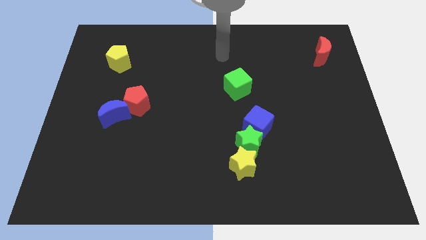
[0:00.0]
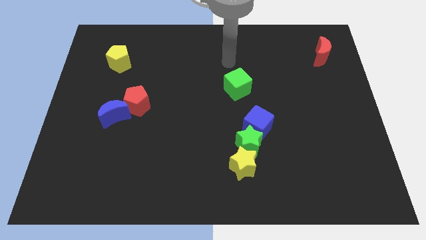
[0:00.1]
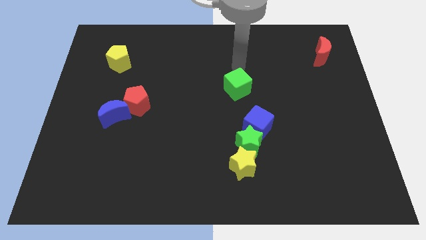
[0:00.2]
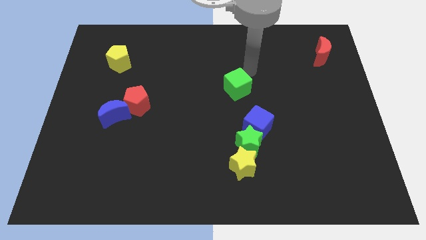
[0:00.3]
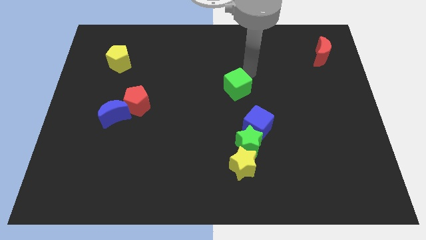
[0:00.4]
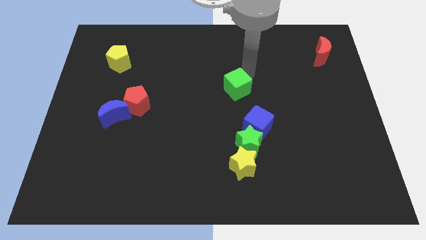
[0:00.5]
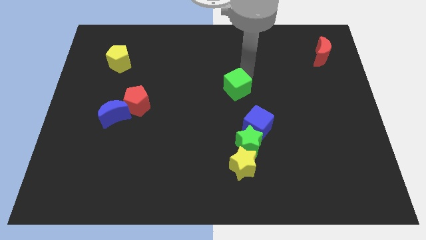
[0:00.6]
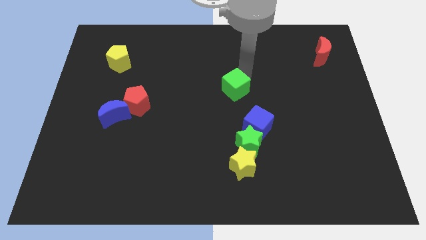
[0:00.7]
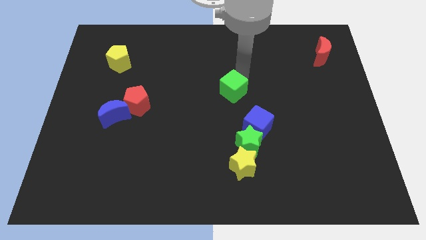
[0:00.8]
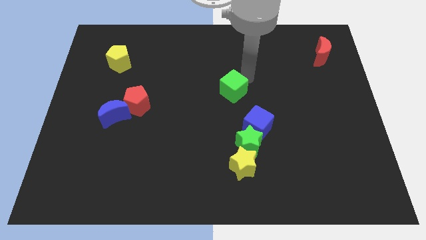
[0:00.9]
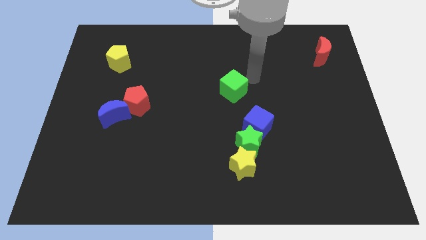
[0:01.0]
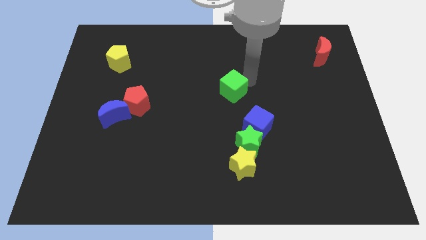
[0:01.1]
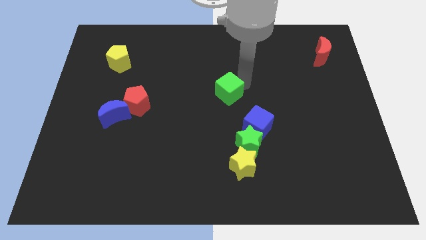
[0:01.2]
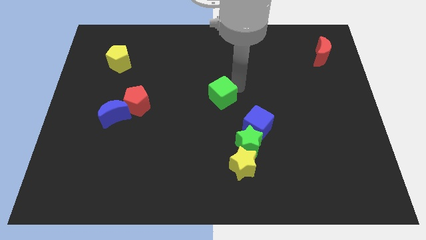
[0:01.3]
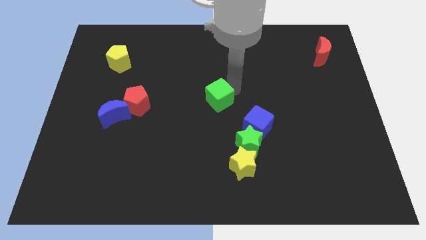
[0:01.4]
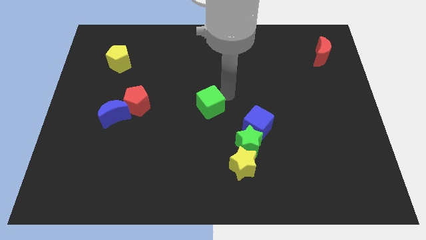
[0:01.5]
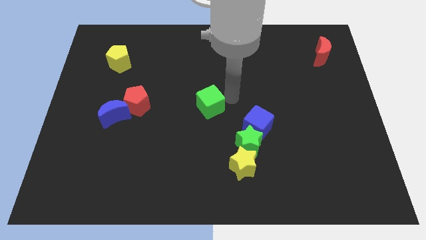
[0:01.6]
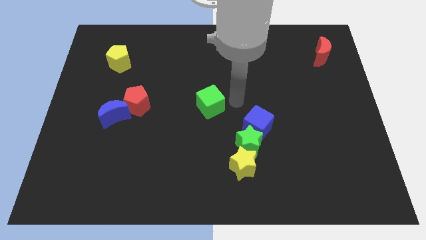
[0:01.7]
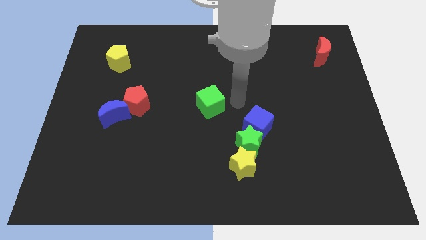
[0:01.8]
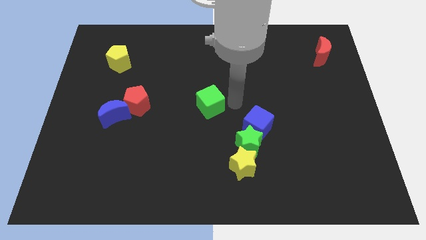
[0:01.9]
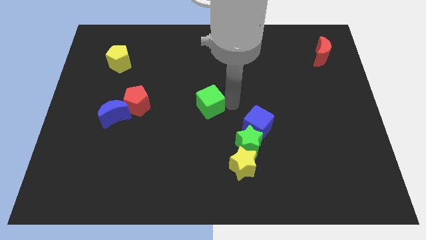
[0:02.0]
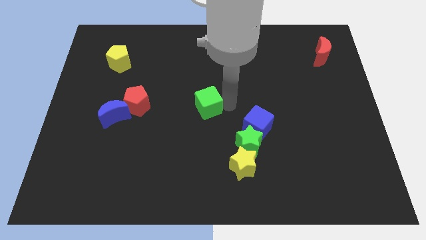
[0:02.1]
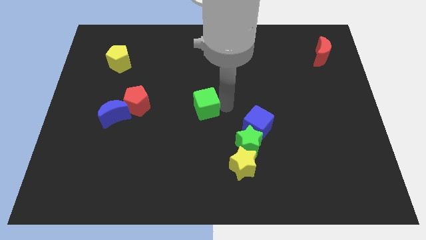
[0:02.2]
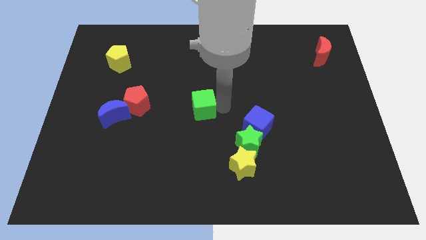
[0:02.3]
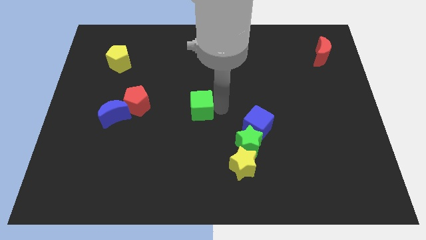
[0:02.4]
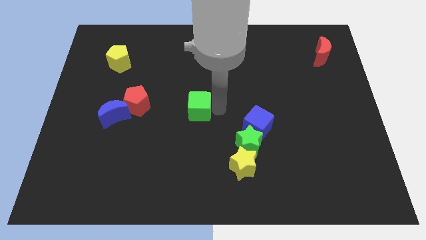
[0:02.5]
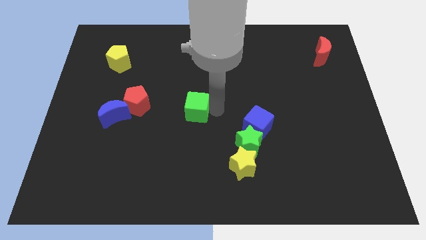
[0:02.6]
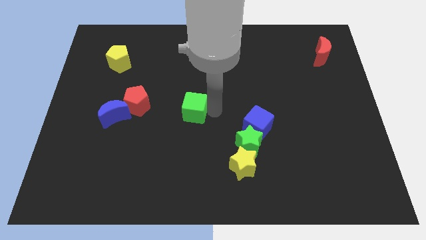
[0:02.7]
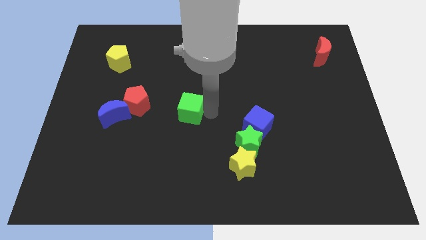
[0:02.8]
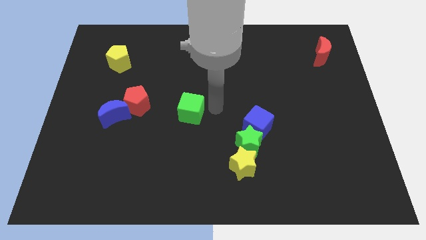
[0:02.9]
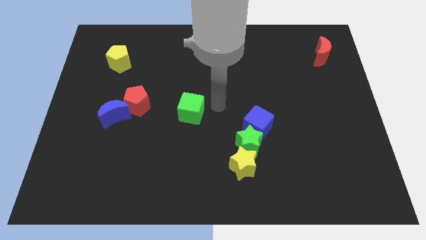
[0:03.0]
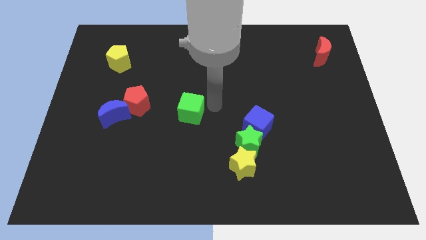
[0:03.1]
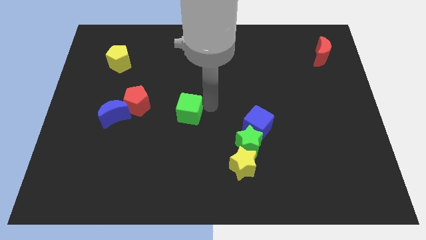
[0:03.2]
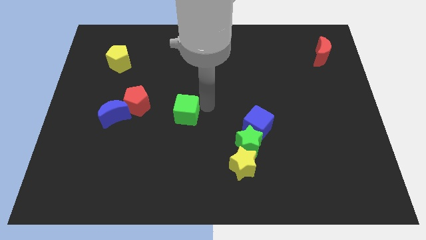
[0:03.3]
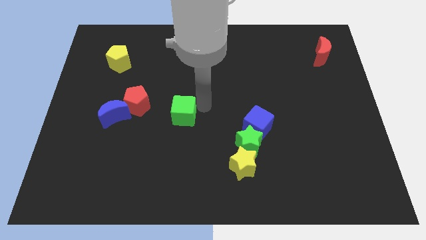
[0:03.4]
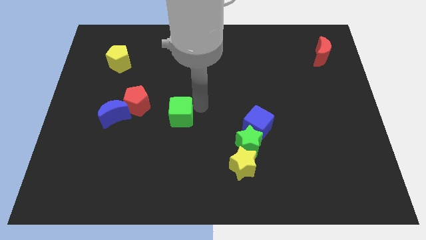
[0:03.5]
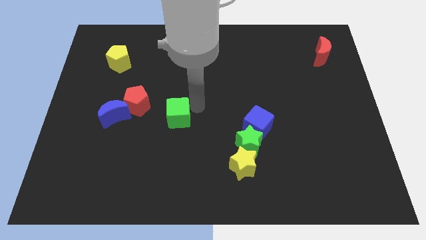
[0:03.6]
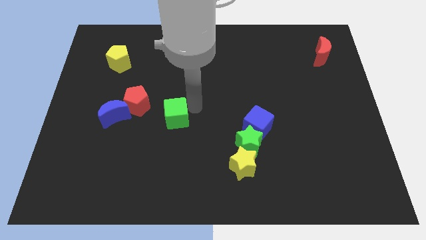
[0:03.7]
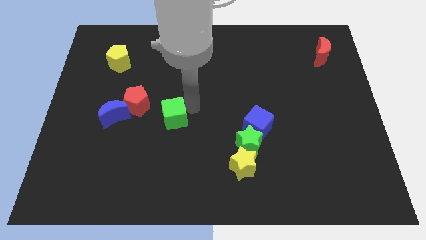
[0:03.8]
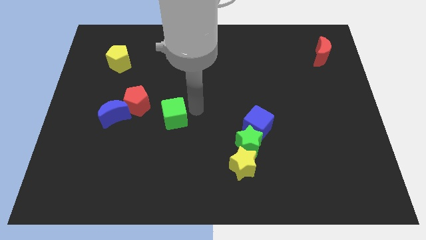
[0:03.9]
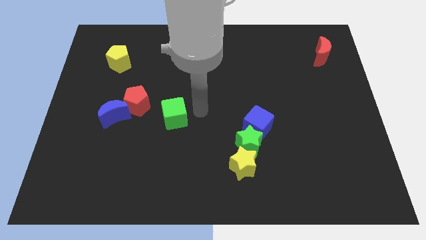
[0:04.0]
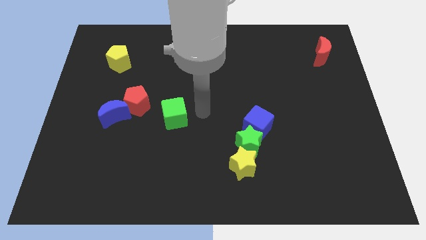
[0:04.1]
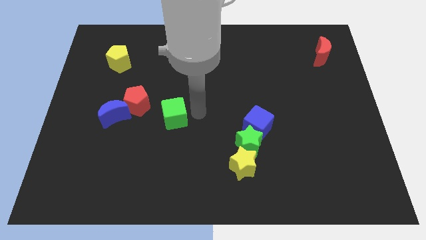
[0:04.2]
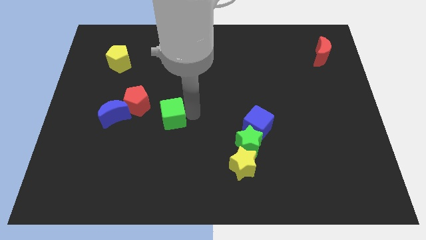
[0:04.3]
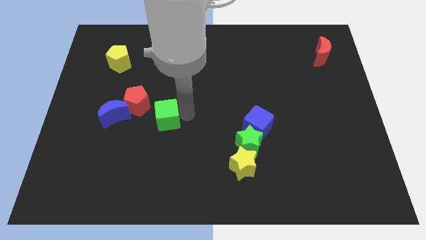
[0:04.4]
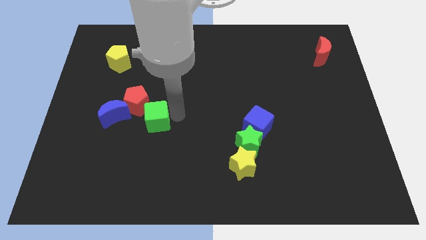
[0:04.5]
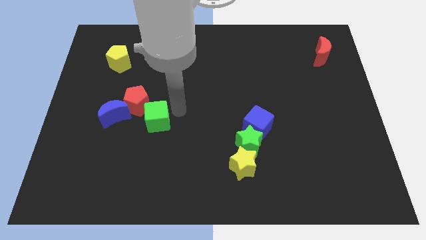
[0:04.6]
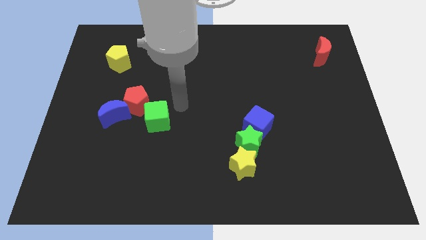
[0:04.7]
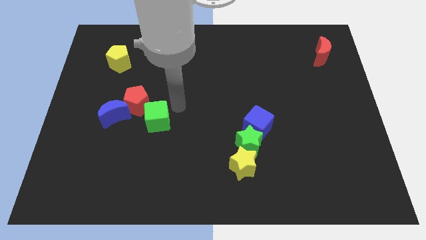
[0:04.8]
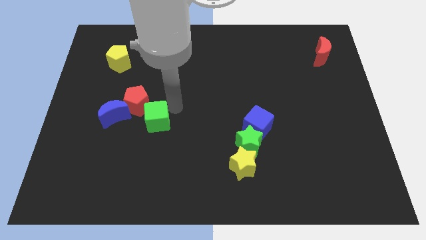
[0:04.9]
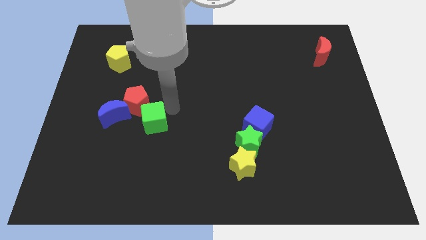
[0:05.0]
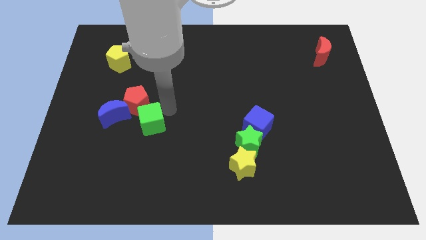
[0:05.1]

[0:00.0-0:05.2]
push the green cube diagonally down and to the right of the blue moon

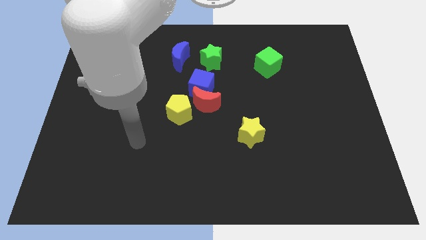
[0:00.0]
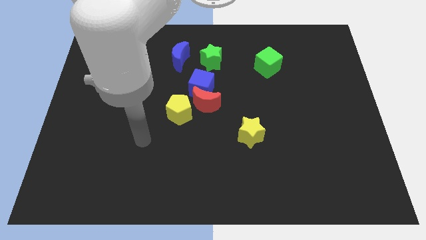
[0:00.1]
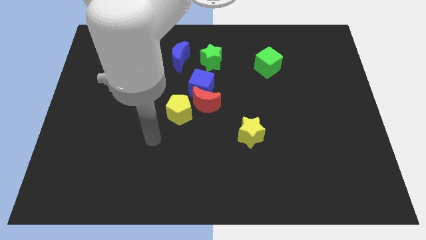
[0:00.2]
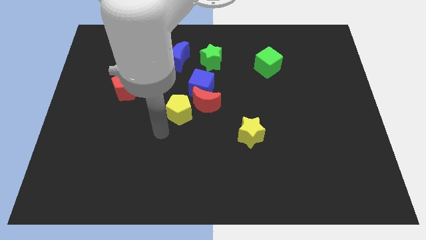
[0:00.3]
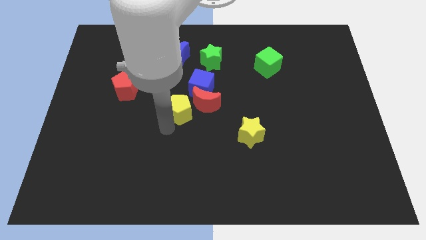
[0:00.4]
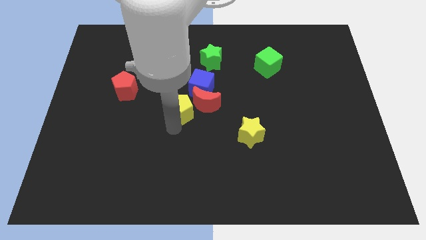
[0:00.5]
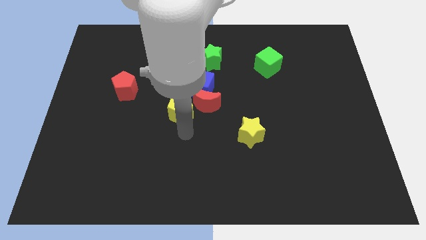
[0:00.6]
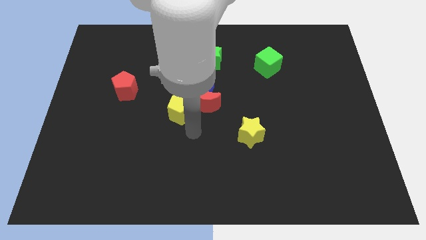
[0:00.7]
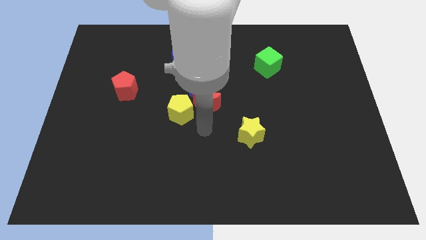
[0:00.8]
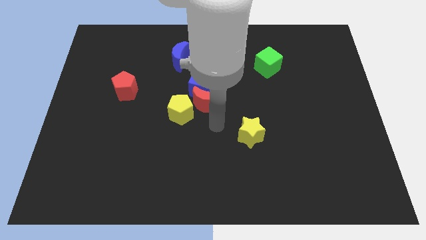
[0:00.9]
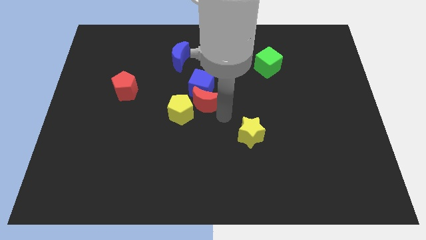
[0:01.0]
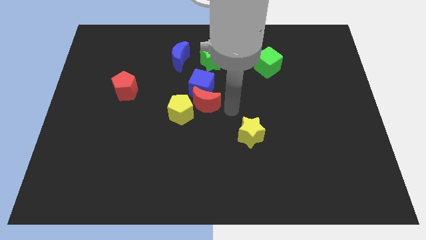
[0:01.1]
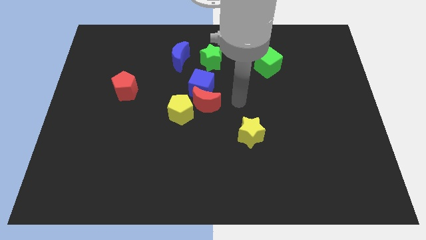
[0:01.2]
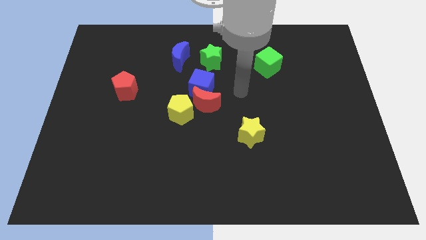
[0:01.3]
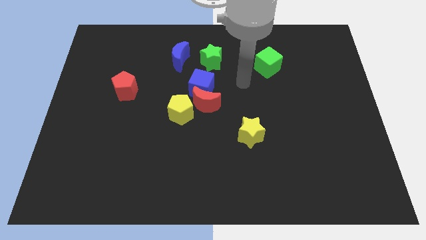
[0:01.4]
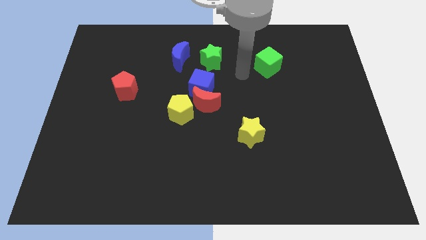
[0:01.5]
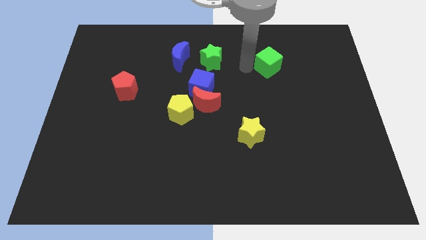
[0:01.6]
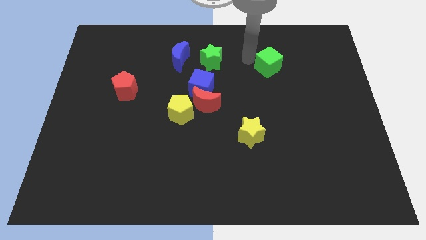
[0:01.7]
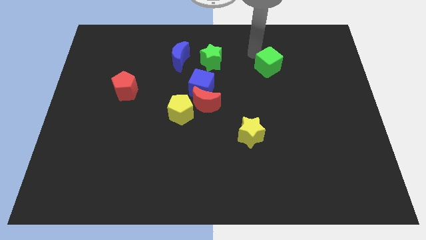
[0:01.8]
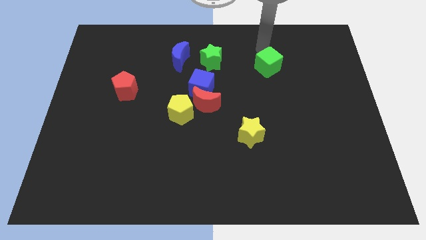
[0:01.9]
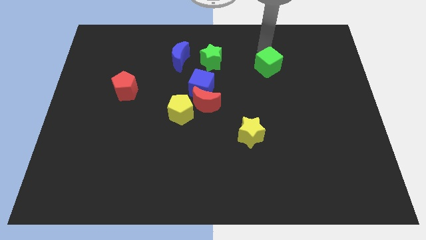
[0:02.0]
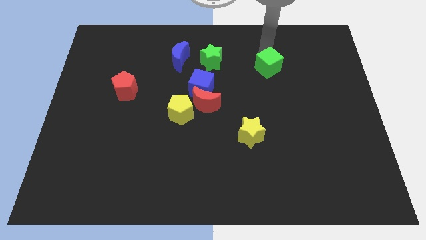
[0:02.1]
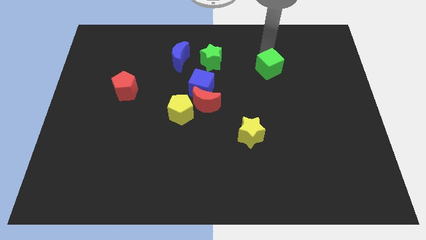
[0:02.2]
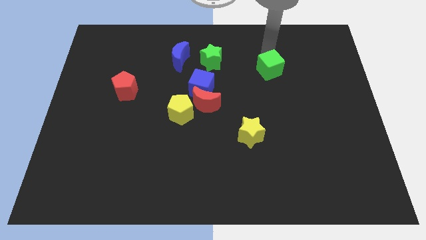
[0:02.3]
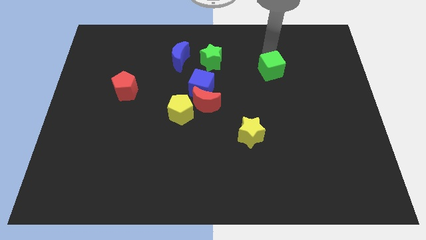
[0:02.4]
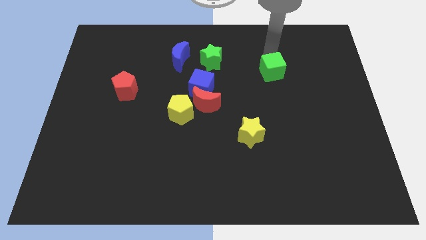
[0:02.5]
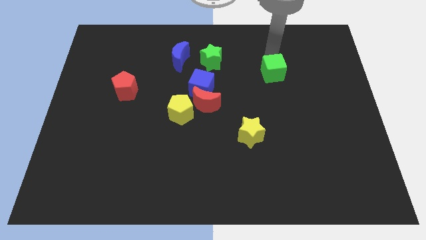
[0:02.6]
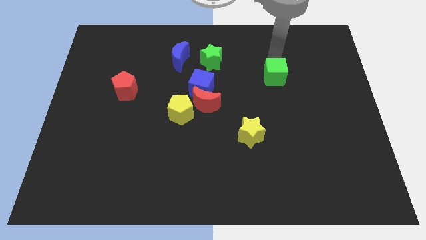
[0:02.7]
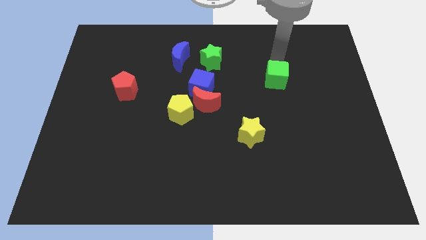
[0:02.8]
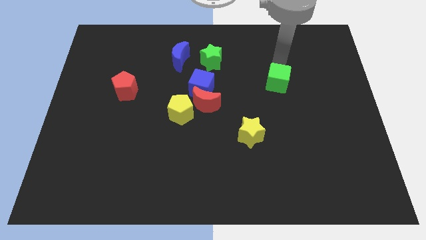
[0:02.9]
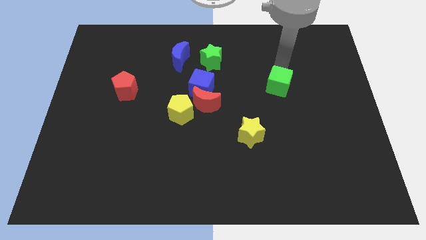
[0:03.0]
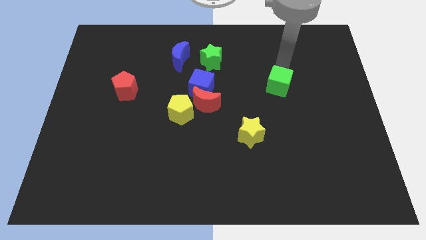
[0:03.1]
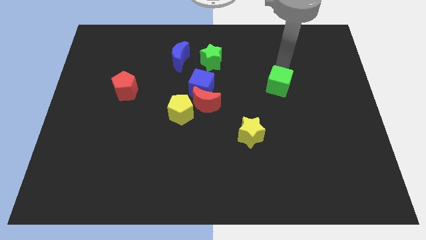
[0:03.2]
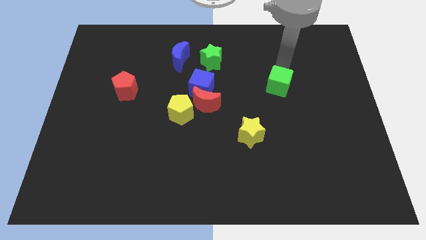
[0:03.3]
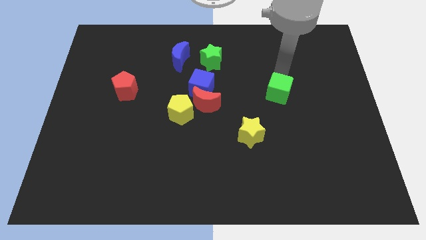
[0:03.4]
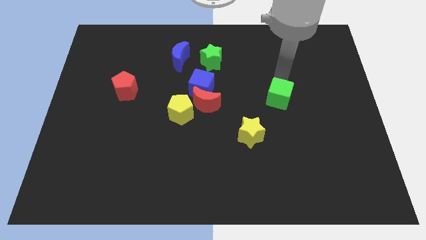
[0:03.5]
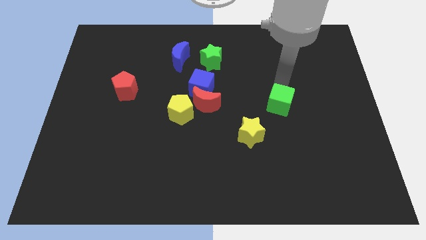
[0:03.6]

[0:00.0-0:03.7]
put the green cube to the top right of the yellow star
